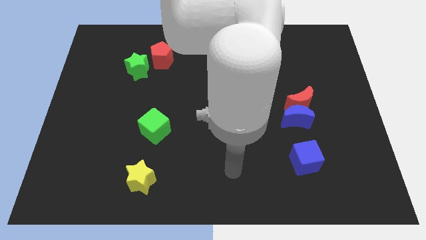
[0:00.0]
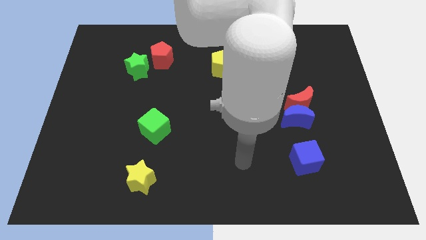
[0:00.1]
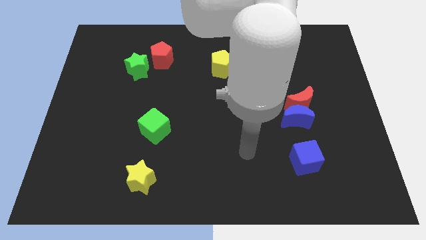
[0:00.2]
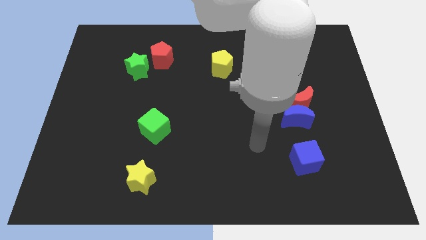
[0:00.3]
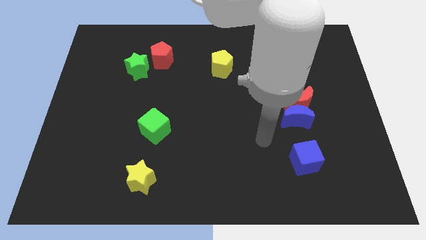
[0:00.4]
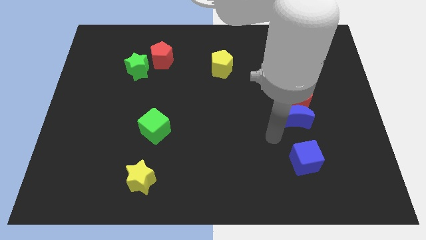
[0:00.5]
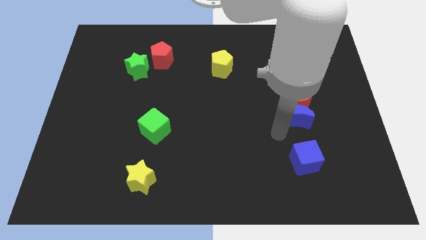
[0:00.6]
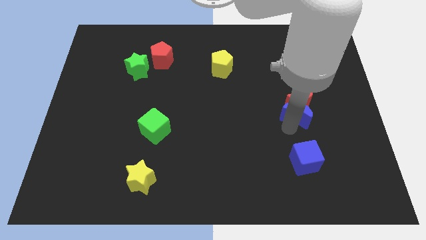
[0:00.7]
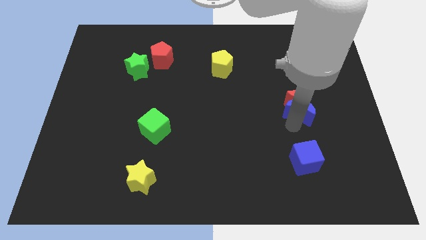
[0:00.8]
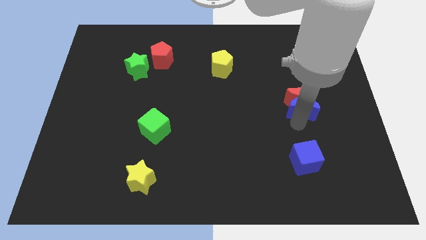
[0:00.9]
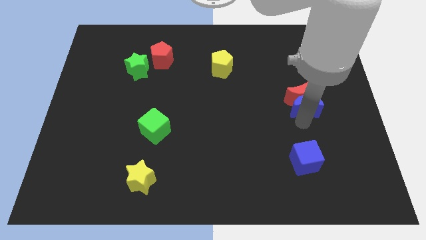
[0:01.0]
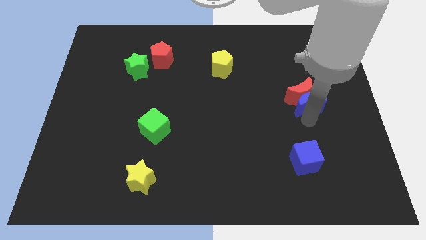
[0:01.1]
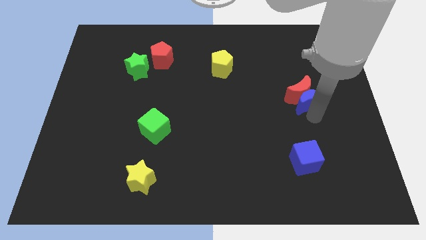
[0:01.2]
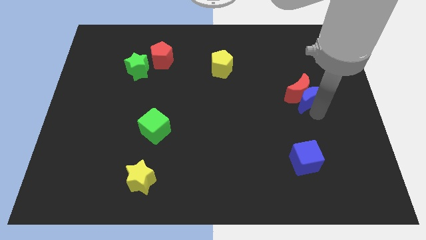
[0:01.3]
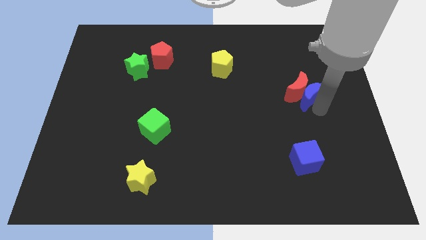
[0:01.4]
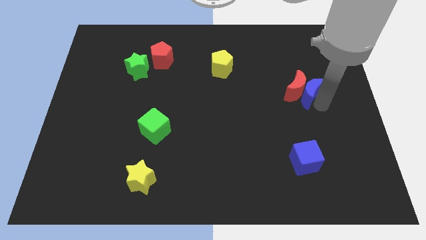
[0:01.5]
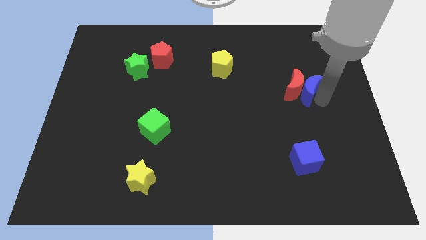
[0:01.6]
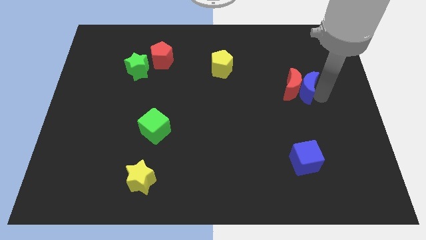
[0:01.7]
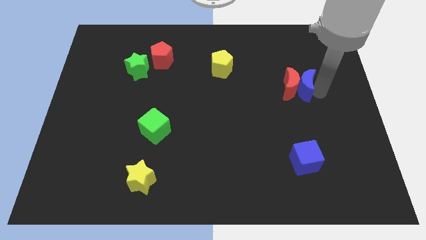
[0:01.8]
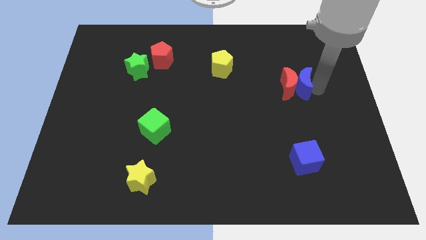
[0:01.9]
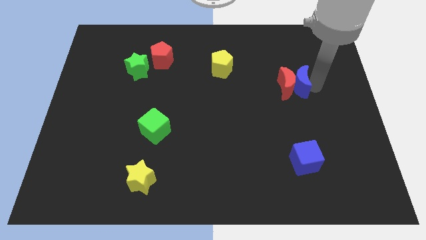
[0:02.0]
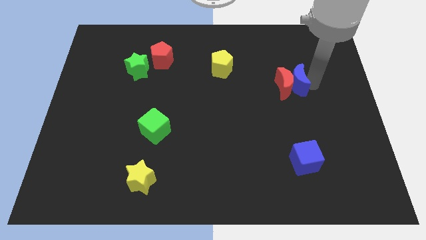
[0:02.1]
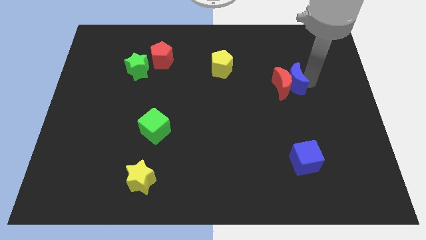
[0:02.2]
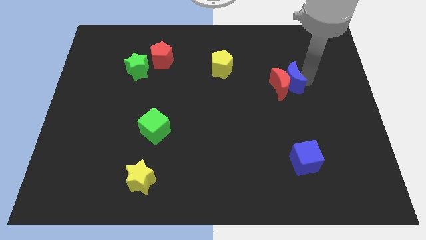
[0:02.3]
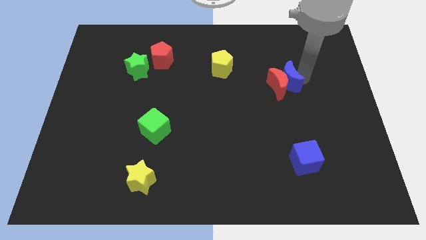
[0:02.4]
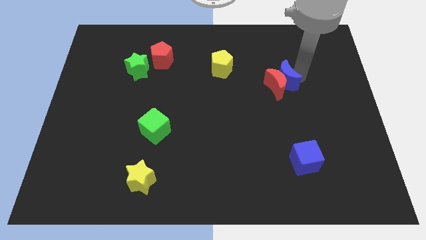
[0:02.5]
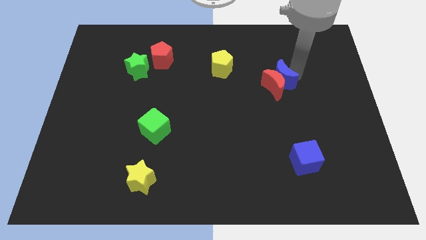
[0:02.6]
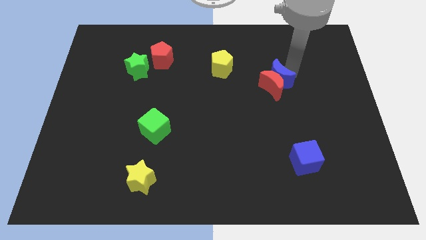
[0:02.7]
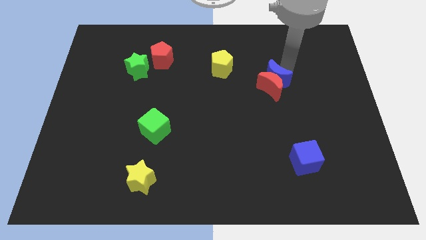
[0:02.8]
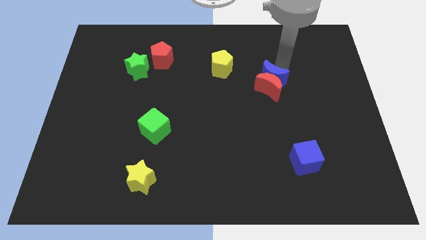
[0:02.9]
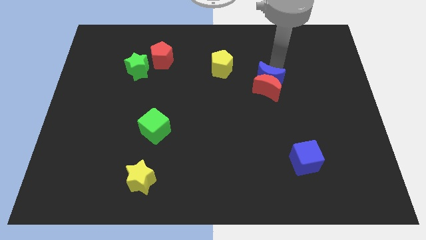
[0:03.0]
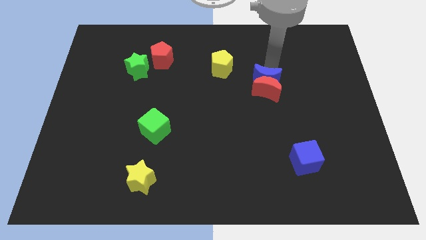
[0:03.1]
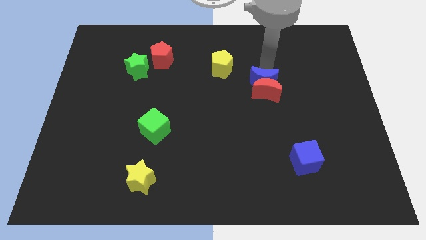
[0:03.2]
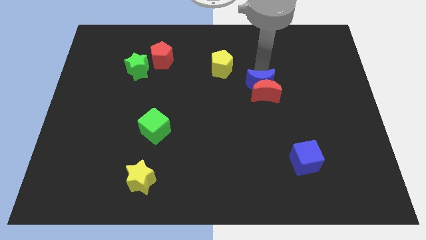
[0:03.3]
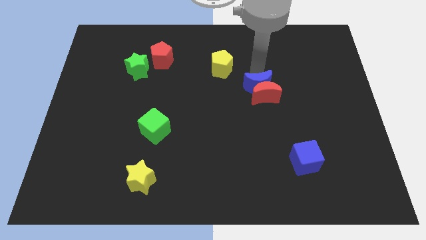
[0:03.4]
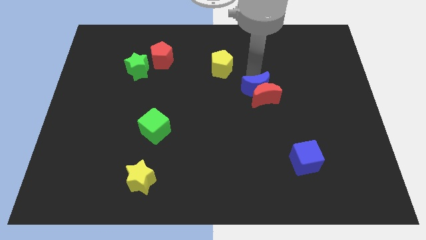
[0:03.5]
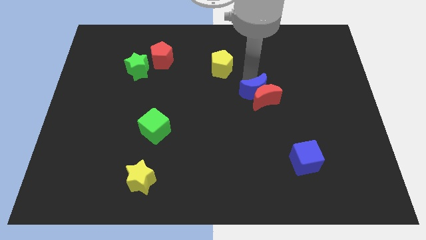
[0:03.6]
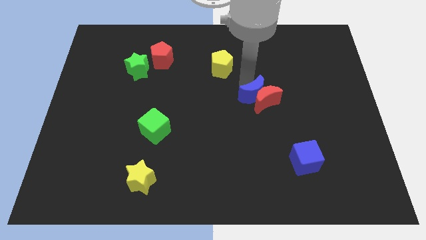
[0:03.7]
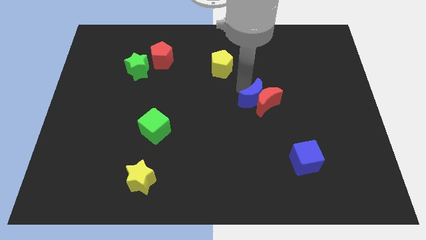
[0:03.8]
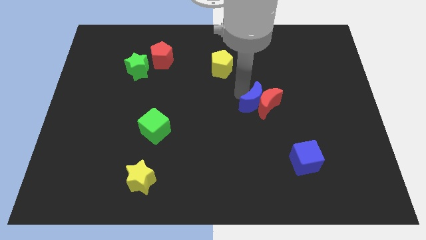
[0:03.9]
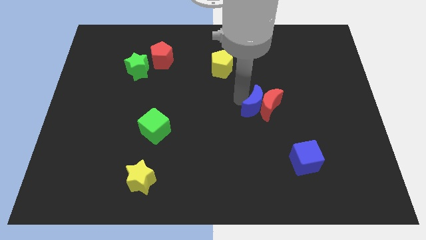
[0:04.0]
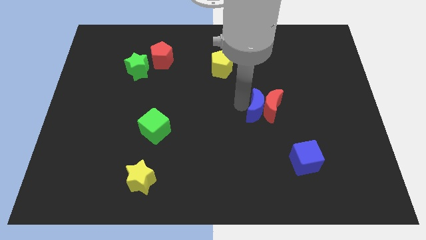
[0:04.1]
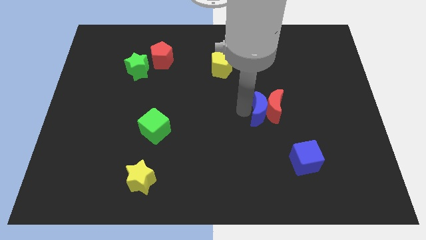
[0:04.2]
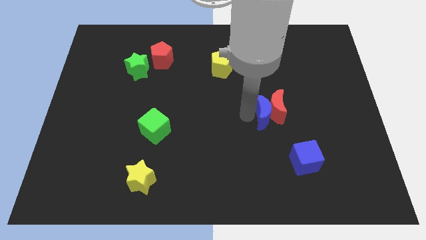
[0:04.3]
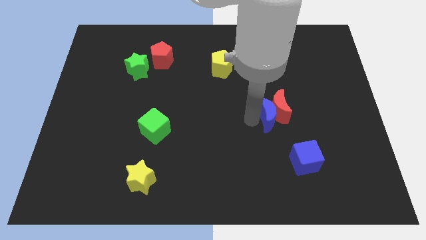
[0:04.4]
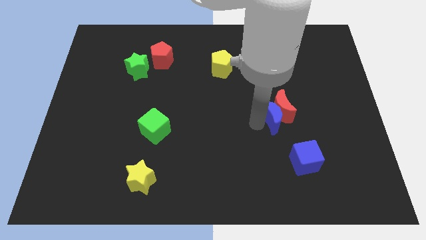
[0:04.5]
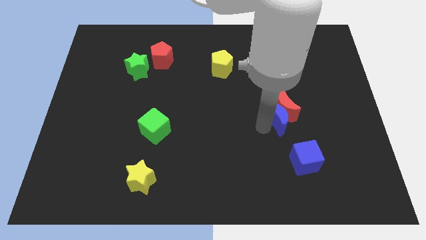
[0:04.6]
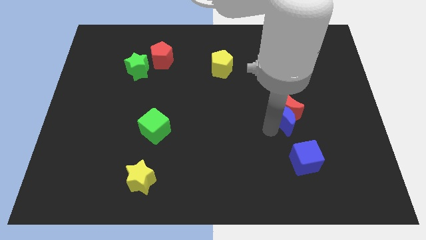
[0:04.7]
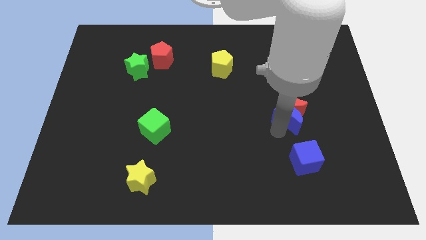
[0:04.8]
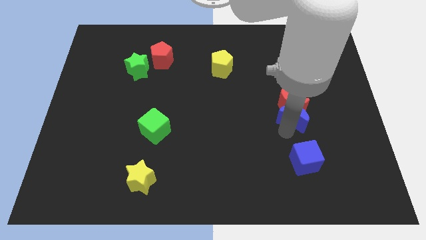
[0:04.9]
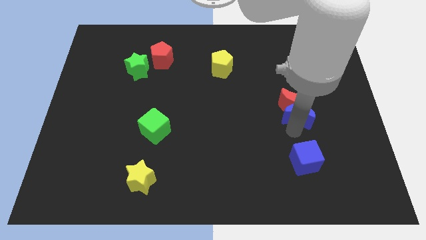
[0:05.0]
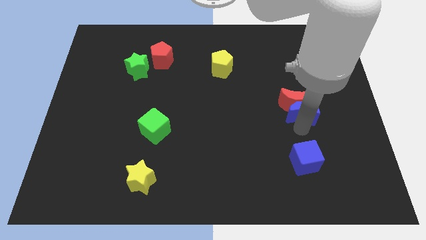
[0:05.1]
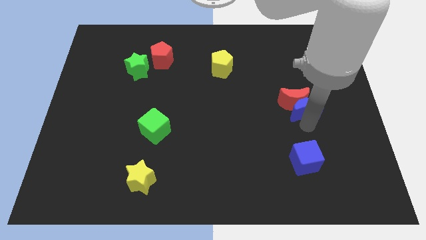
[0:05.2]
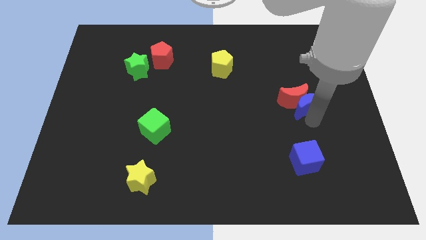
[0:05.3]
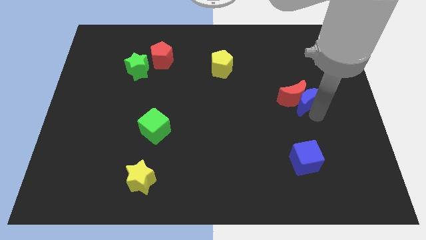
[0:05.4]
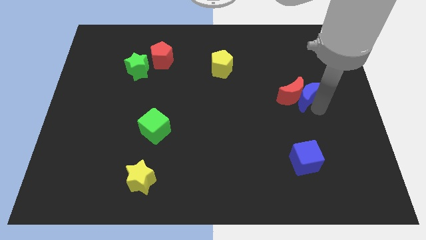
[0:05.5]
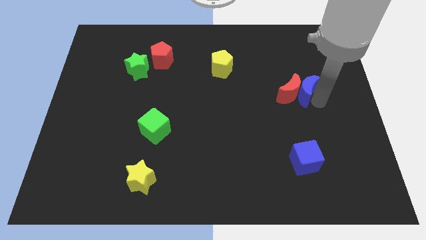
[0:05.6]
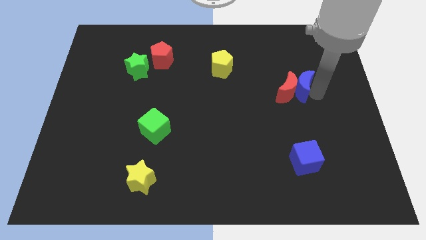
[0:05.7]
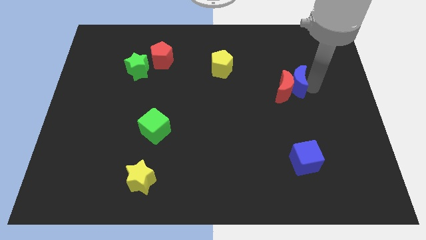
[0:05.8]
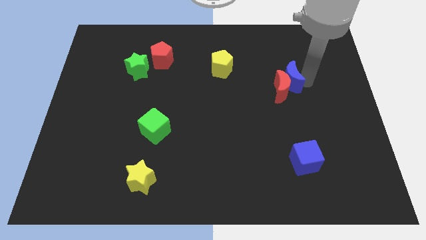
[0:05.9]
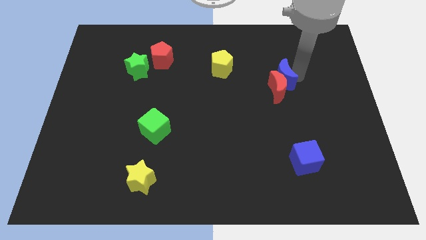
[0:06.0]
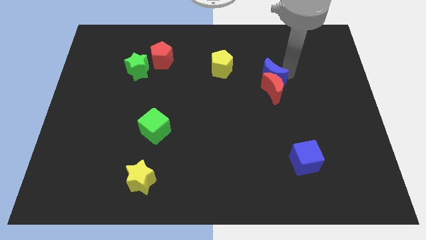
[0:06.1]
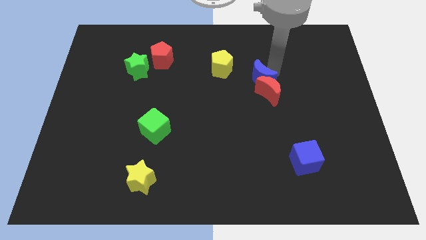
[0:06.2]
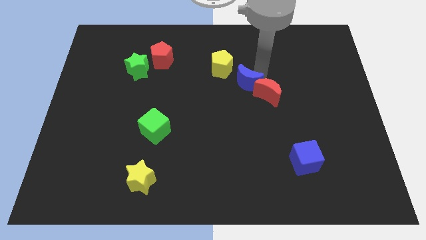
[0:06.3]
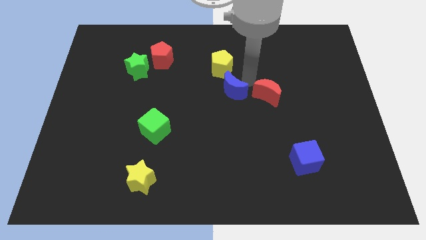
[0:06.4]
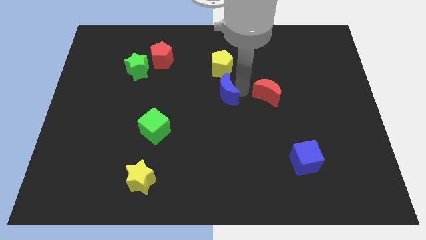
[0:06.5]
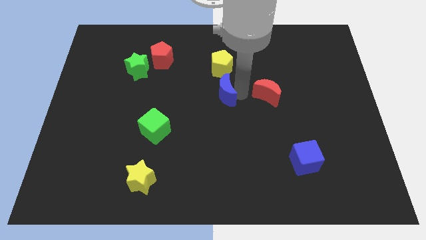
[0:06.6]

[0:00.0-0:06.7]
separate the red moon from the blue moon

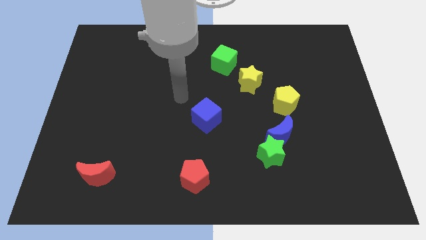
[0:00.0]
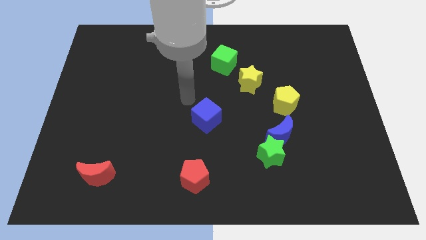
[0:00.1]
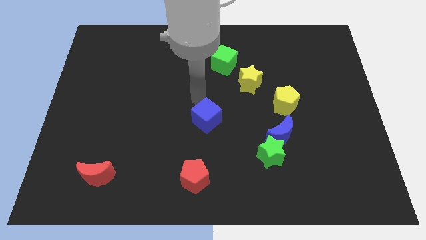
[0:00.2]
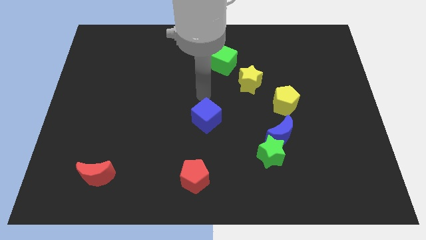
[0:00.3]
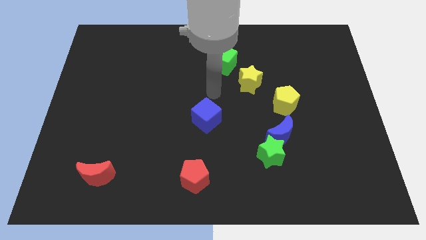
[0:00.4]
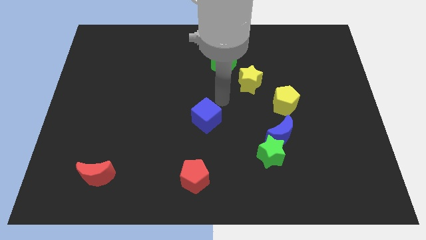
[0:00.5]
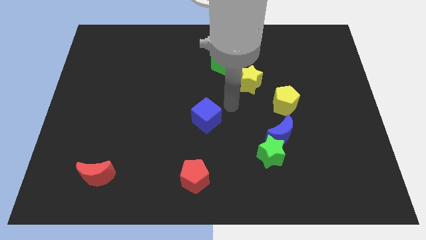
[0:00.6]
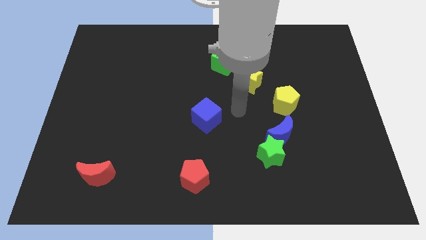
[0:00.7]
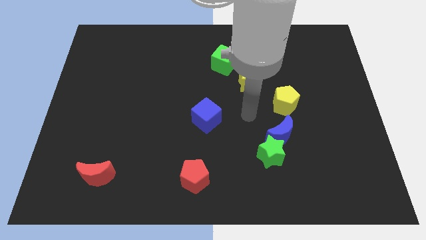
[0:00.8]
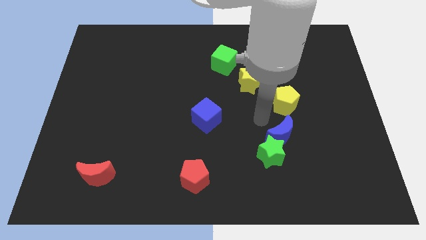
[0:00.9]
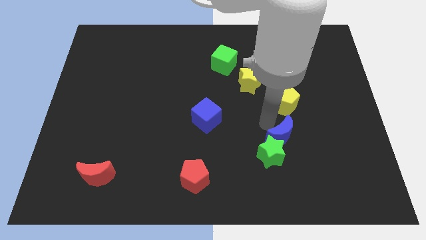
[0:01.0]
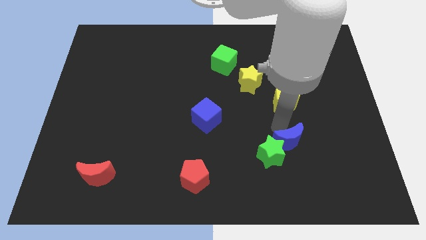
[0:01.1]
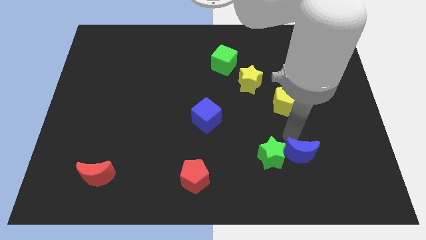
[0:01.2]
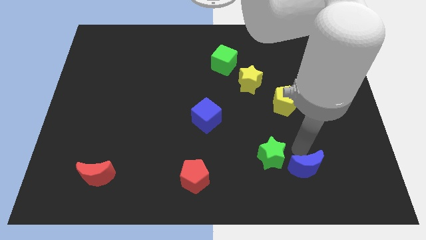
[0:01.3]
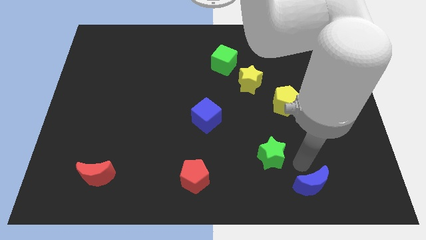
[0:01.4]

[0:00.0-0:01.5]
move the green star away from the blue moon

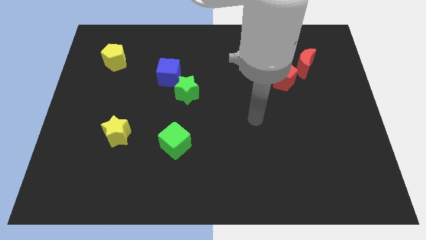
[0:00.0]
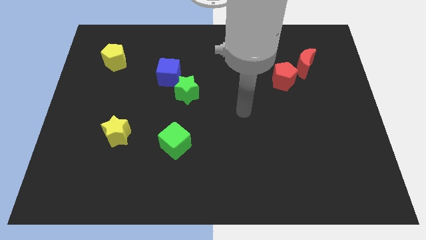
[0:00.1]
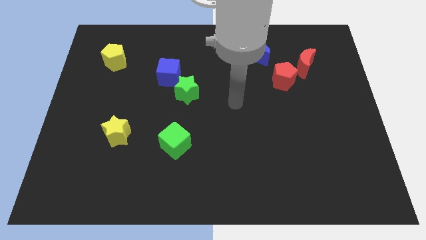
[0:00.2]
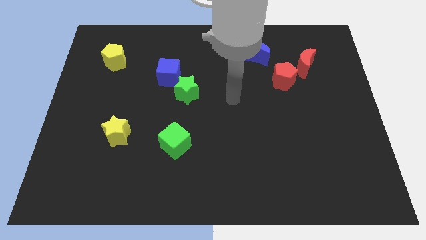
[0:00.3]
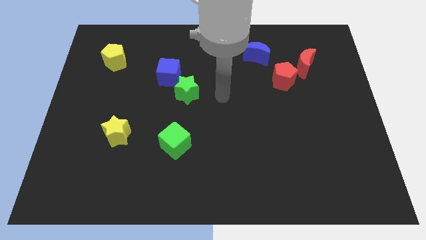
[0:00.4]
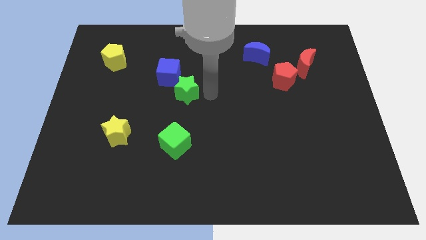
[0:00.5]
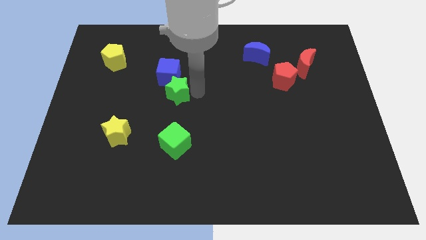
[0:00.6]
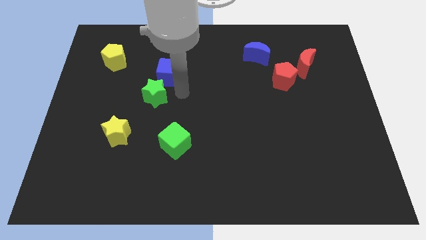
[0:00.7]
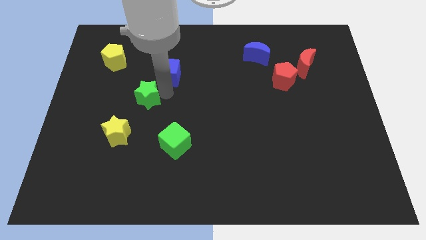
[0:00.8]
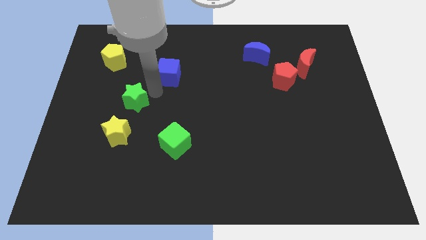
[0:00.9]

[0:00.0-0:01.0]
pull the blue cube apart from the green star
